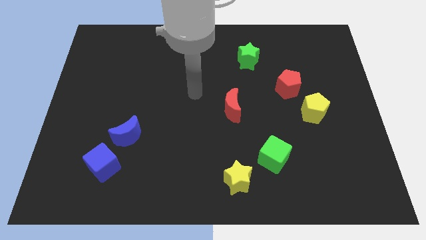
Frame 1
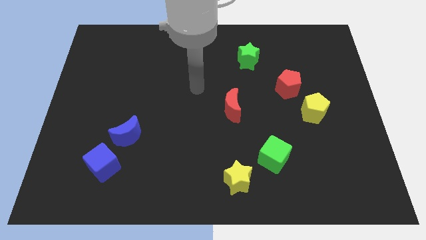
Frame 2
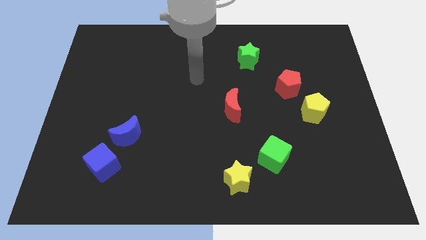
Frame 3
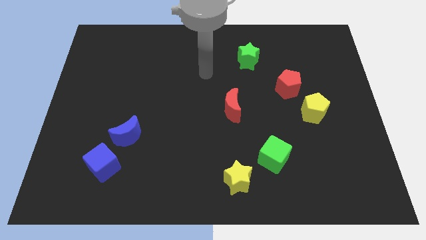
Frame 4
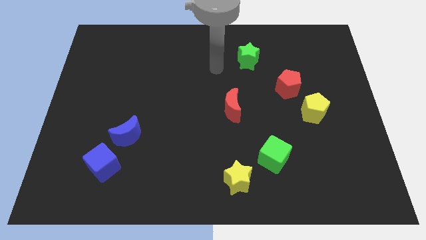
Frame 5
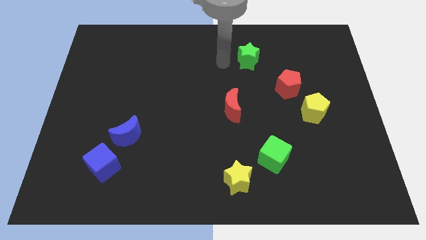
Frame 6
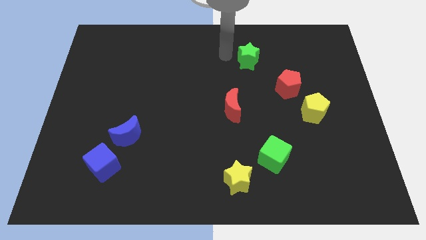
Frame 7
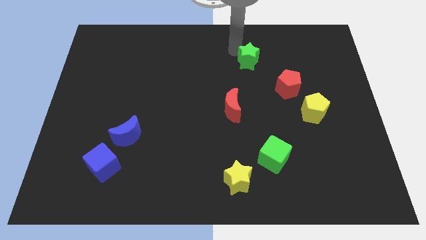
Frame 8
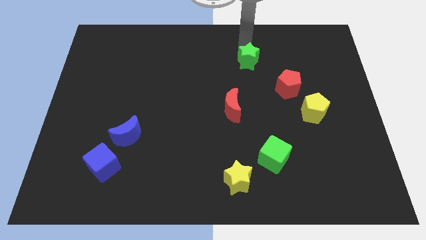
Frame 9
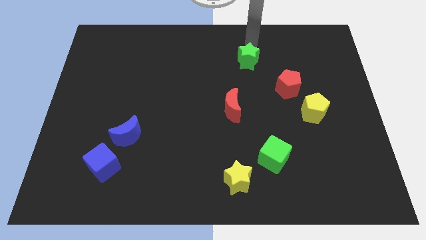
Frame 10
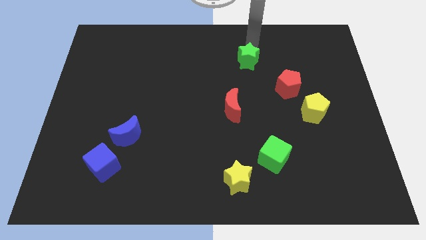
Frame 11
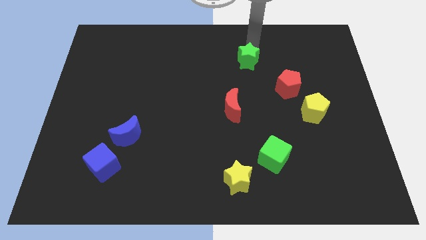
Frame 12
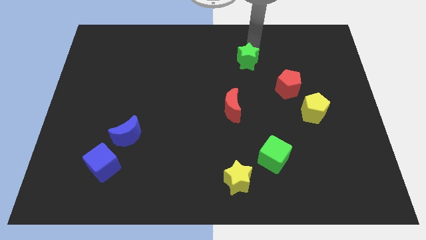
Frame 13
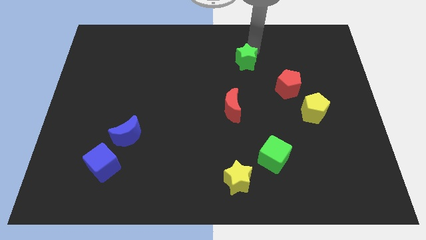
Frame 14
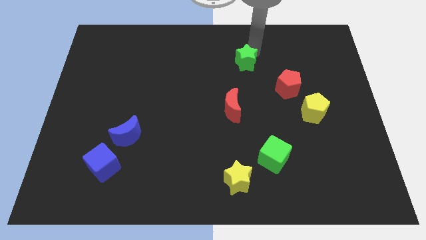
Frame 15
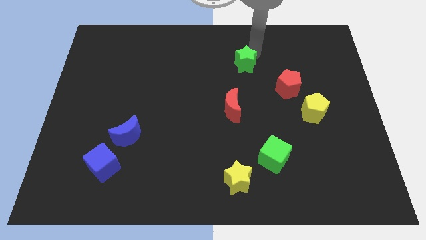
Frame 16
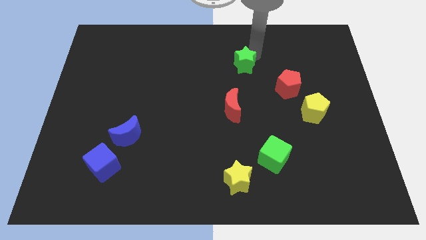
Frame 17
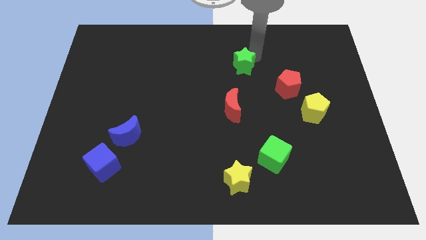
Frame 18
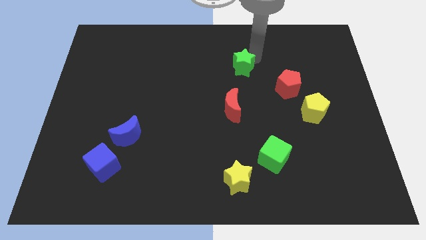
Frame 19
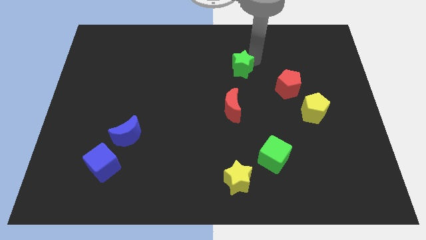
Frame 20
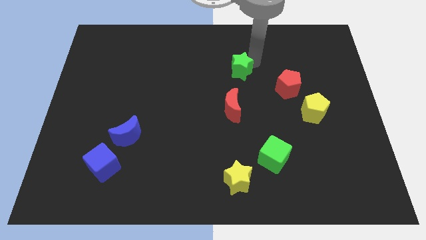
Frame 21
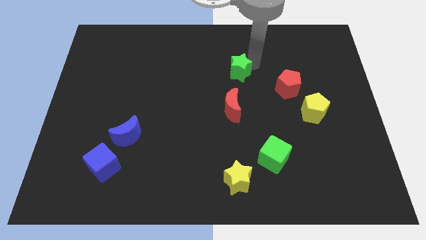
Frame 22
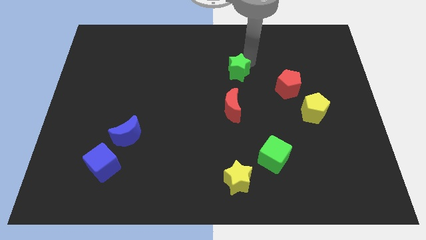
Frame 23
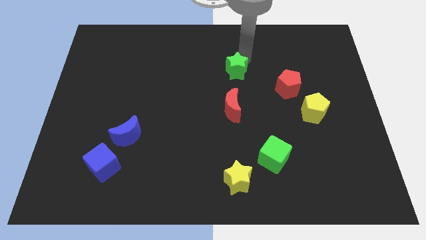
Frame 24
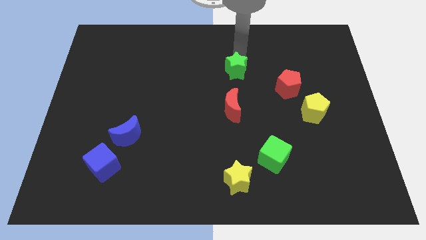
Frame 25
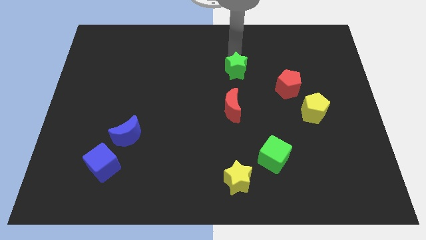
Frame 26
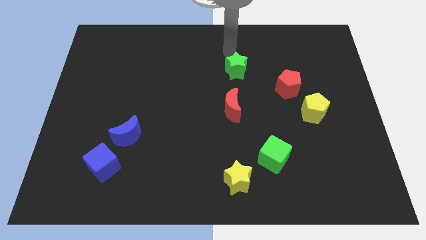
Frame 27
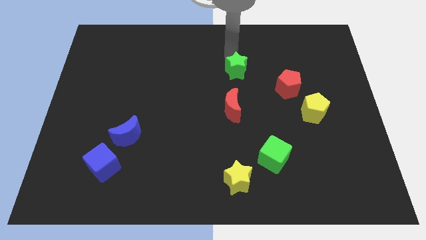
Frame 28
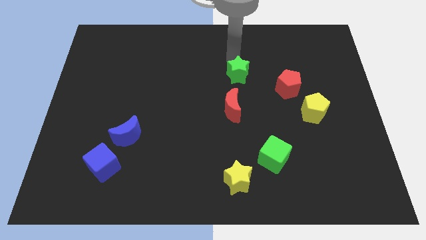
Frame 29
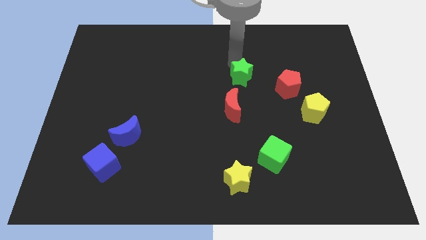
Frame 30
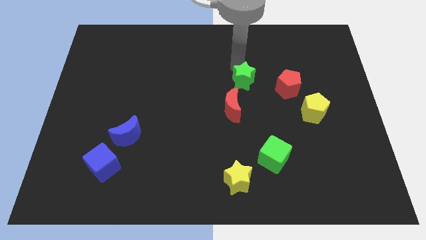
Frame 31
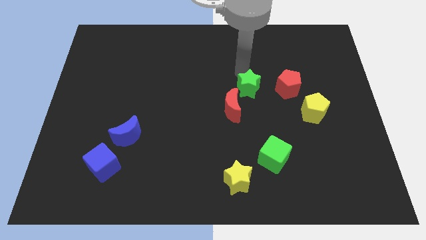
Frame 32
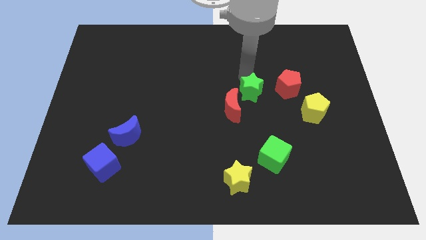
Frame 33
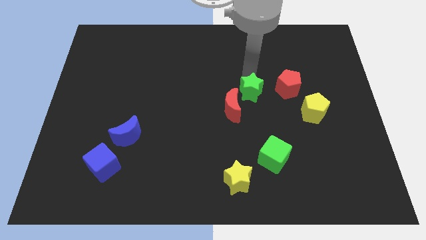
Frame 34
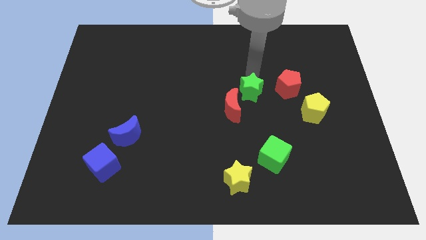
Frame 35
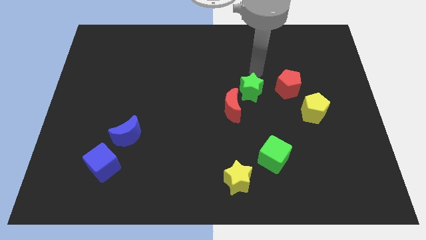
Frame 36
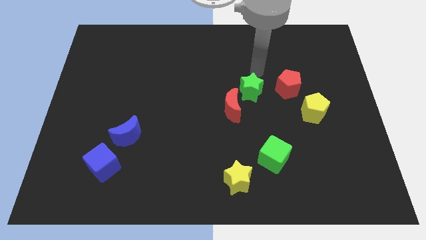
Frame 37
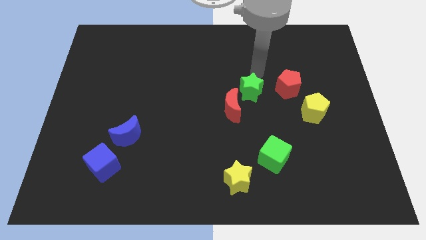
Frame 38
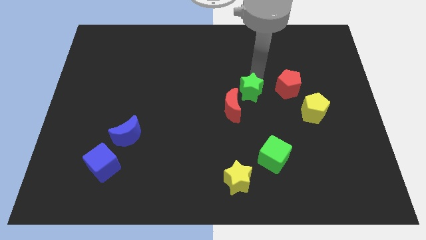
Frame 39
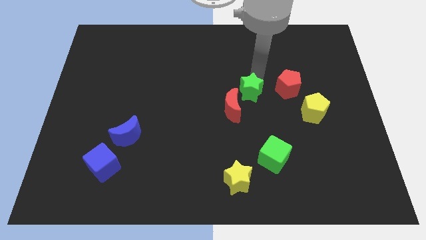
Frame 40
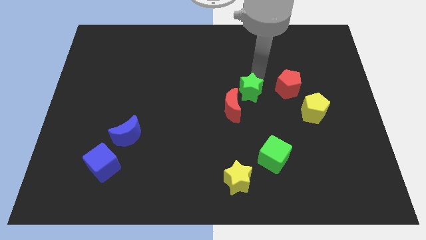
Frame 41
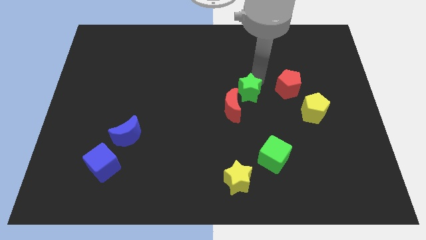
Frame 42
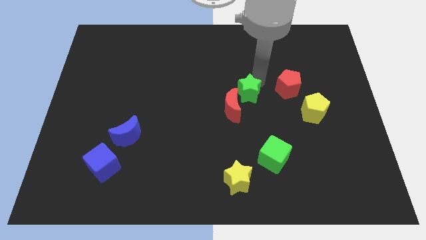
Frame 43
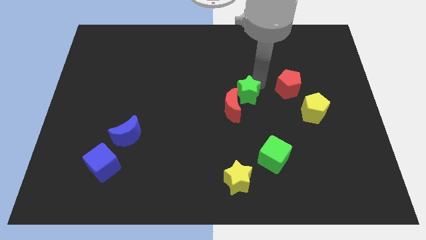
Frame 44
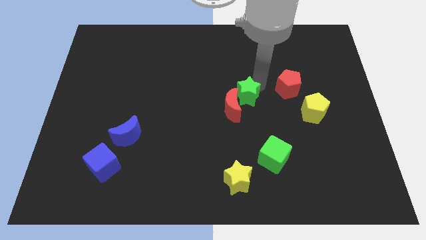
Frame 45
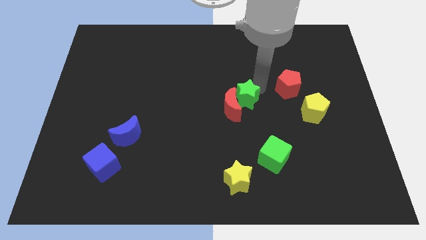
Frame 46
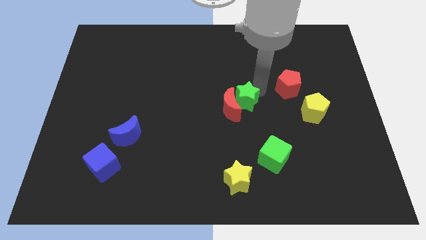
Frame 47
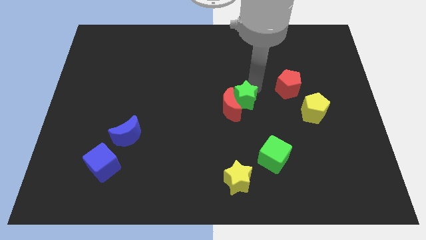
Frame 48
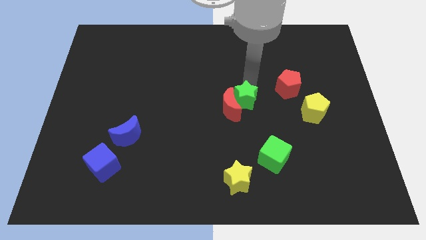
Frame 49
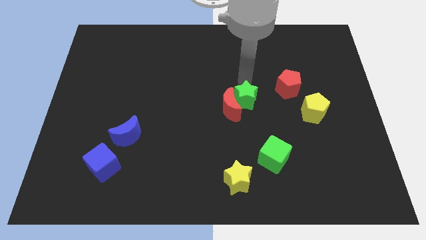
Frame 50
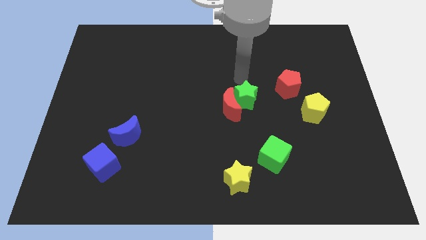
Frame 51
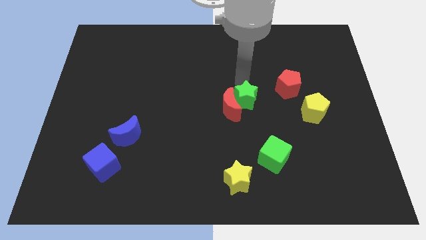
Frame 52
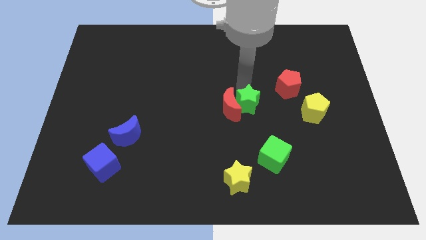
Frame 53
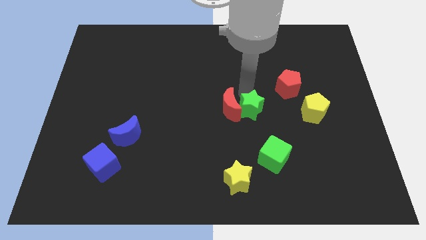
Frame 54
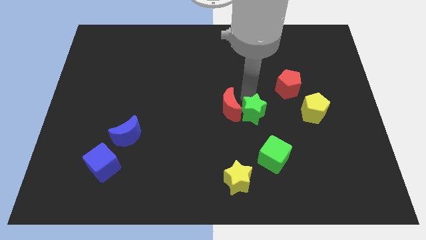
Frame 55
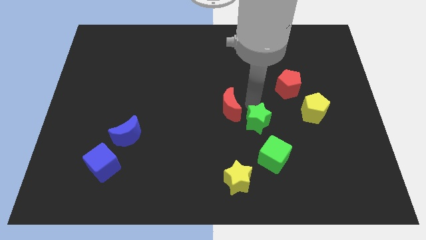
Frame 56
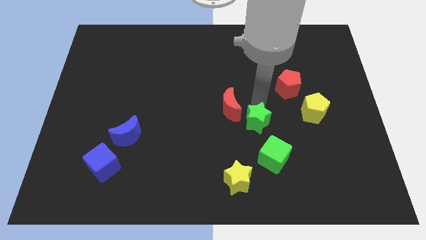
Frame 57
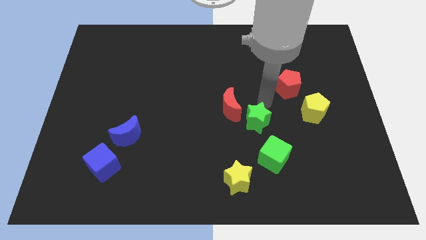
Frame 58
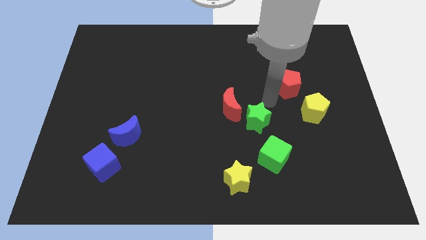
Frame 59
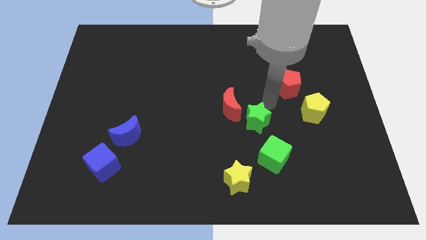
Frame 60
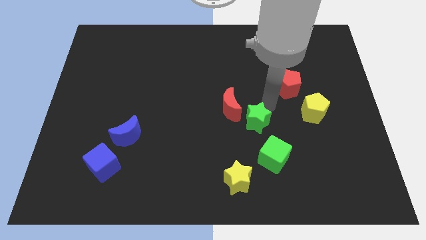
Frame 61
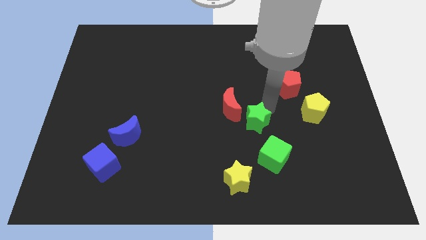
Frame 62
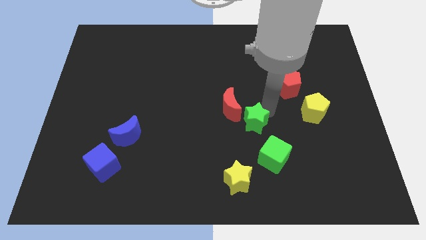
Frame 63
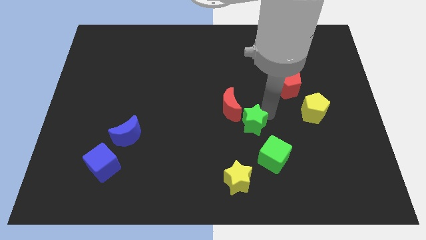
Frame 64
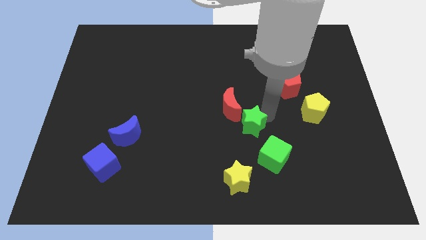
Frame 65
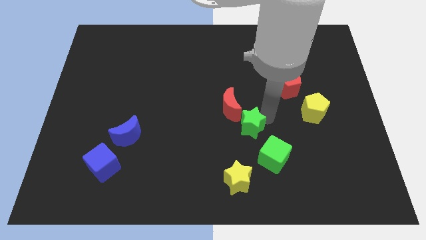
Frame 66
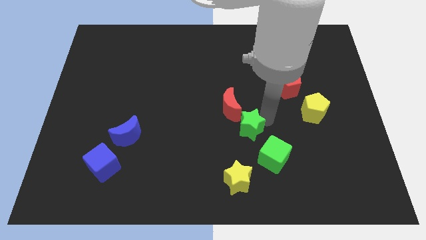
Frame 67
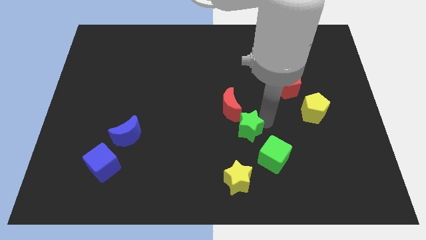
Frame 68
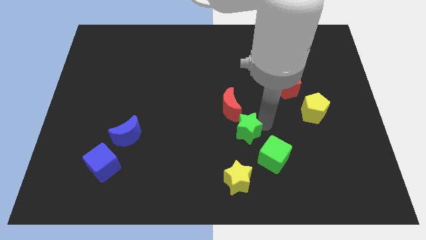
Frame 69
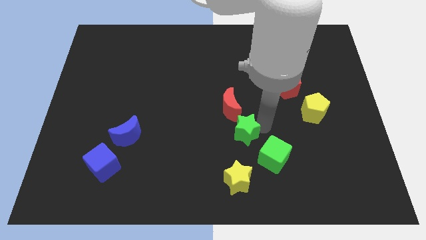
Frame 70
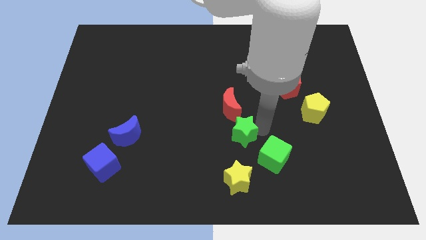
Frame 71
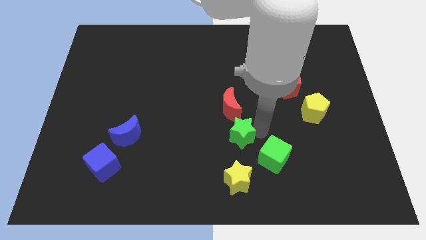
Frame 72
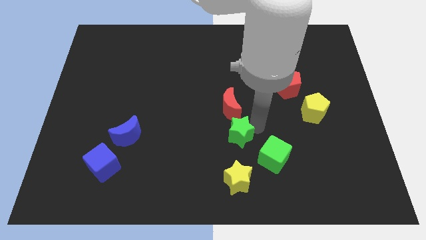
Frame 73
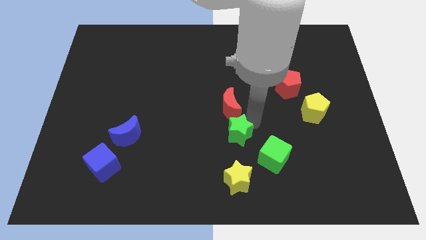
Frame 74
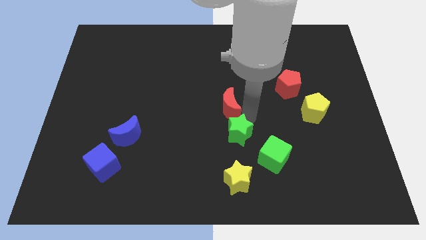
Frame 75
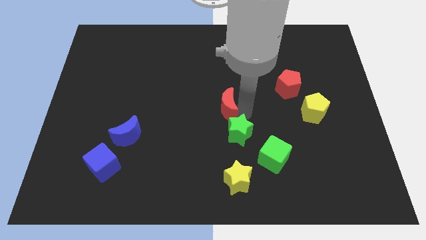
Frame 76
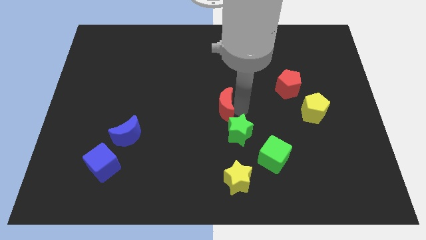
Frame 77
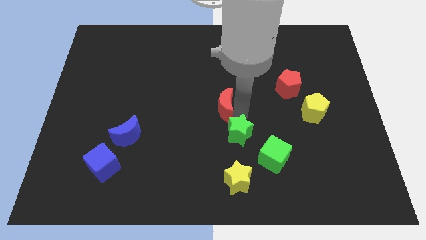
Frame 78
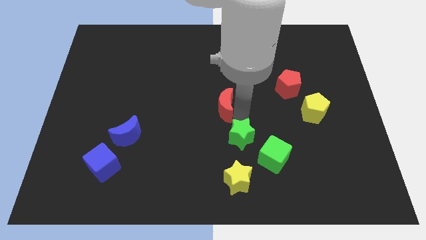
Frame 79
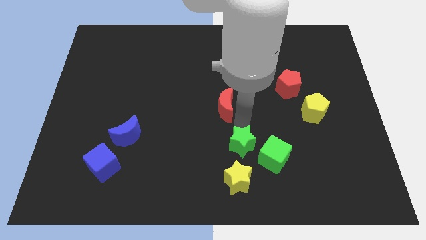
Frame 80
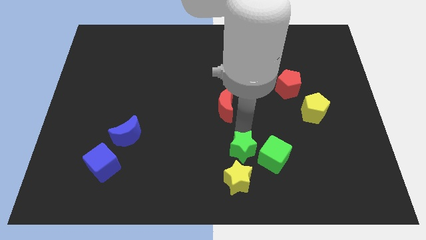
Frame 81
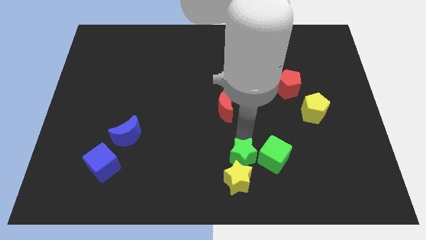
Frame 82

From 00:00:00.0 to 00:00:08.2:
put the green star towards the yellow star
